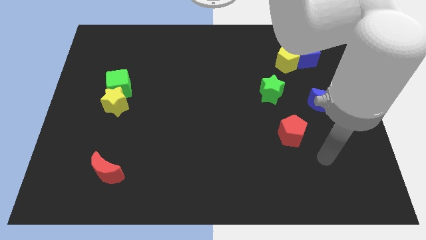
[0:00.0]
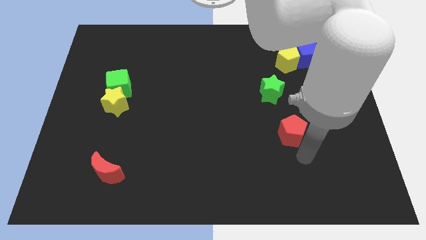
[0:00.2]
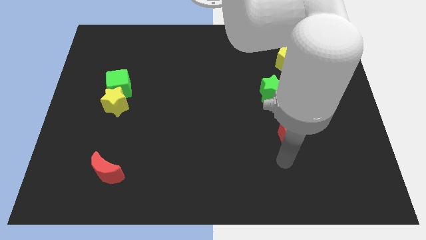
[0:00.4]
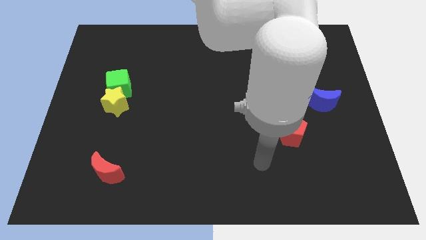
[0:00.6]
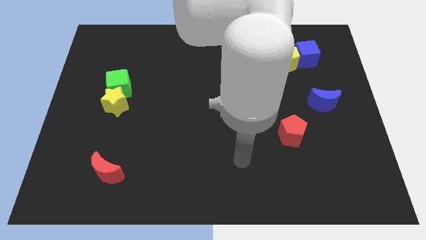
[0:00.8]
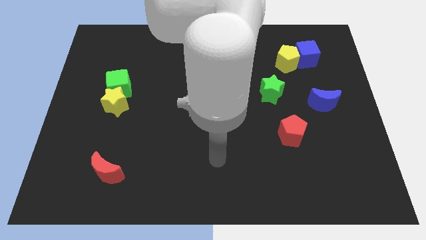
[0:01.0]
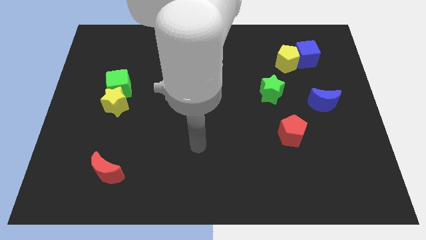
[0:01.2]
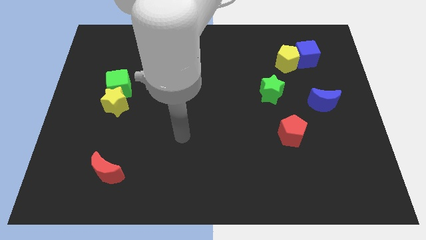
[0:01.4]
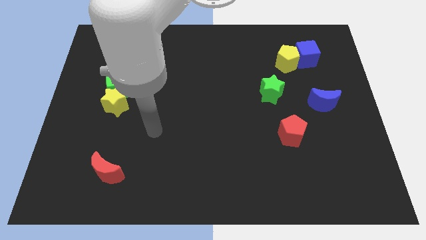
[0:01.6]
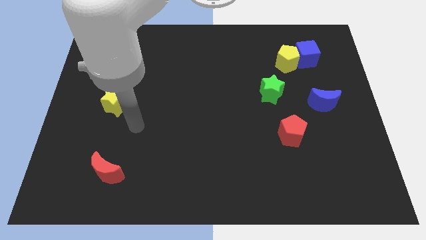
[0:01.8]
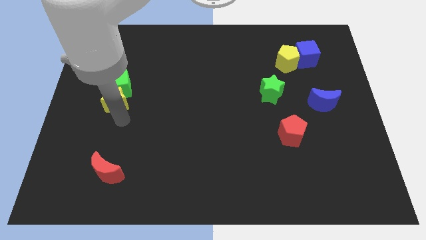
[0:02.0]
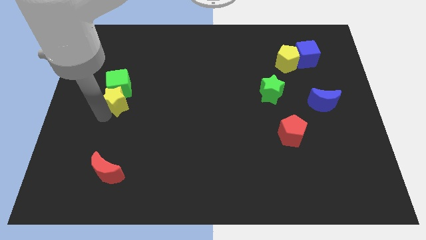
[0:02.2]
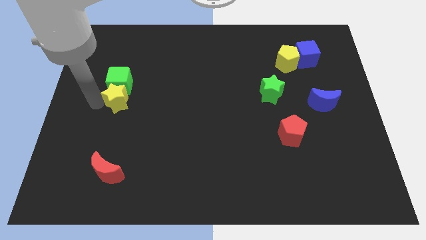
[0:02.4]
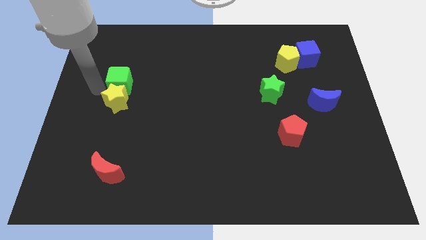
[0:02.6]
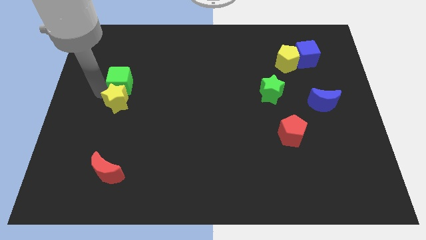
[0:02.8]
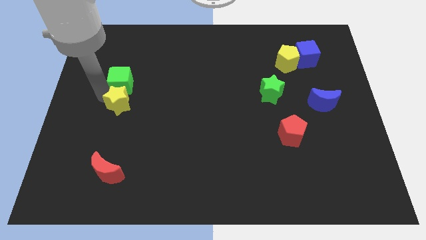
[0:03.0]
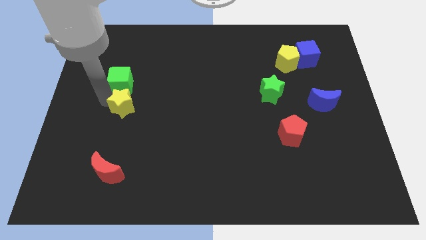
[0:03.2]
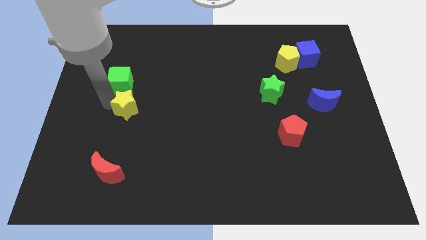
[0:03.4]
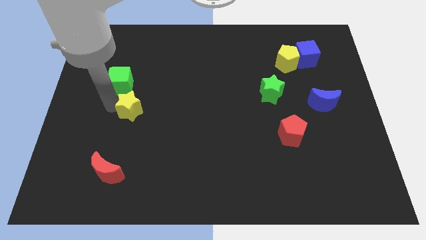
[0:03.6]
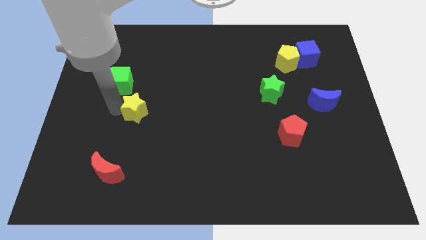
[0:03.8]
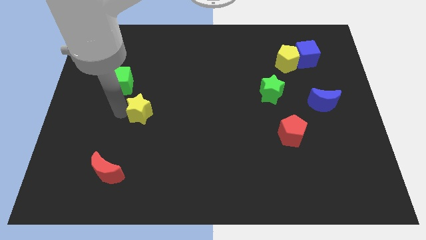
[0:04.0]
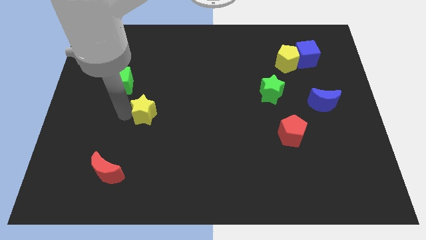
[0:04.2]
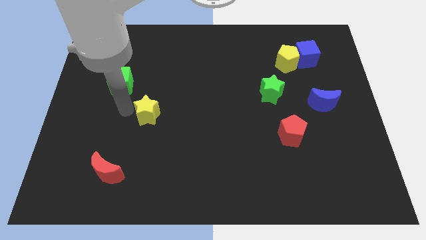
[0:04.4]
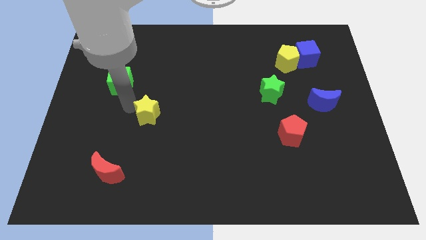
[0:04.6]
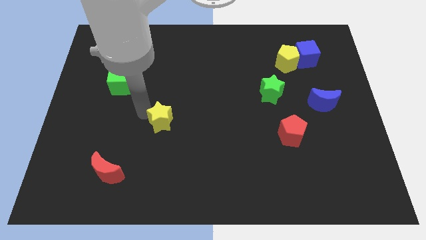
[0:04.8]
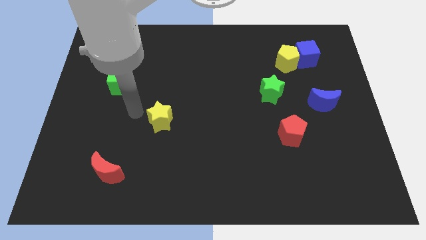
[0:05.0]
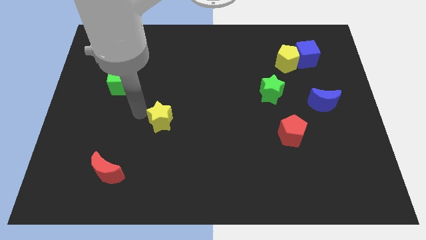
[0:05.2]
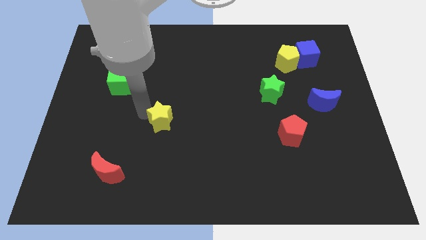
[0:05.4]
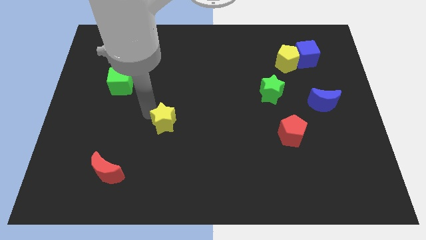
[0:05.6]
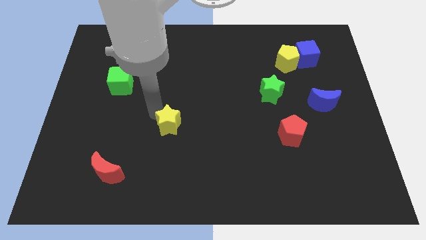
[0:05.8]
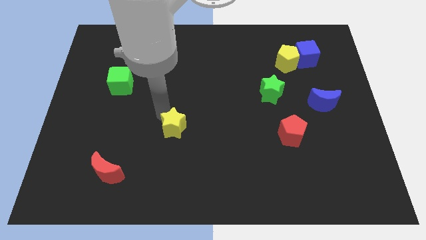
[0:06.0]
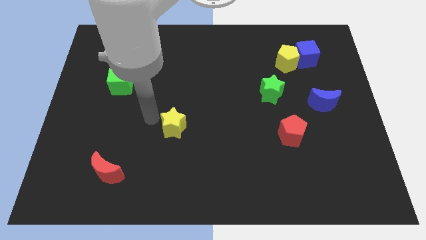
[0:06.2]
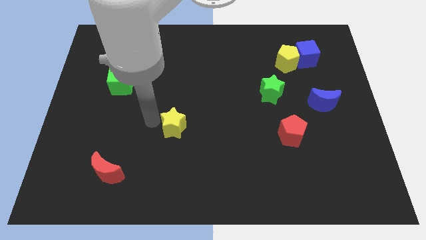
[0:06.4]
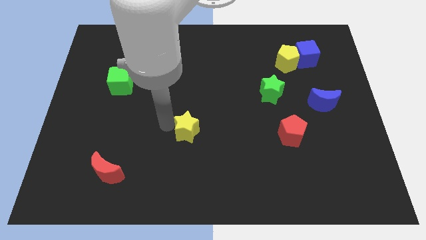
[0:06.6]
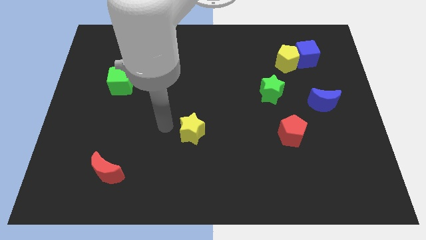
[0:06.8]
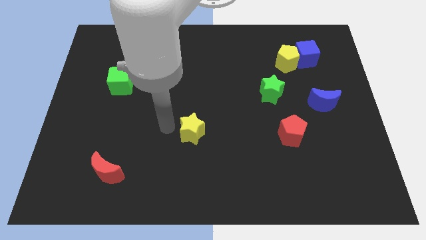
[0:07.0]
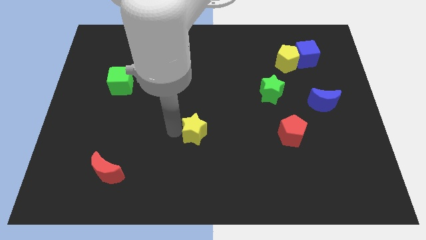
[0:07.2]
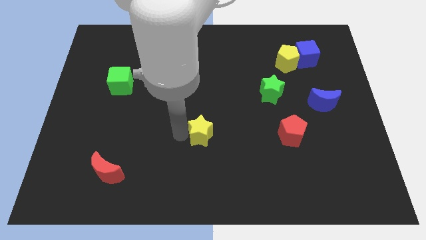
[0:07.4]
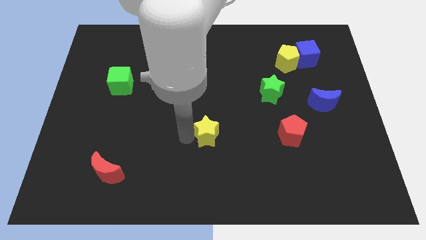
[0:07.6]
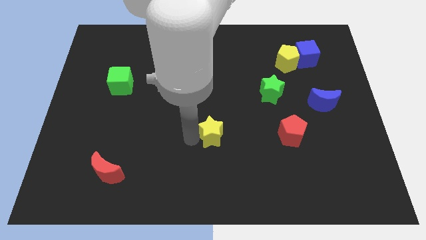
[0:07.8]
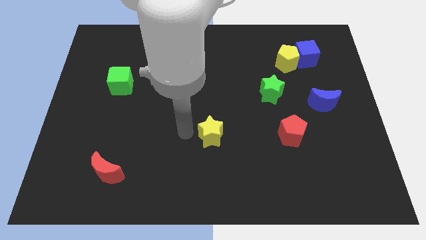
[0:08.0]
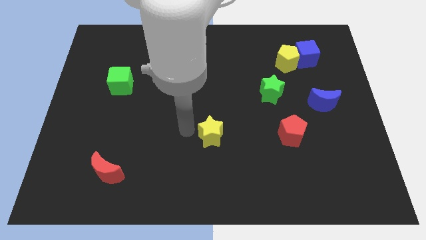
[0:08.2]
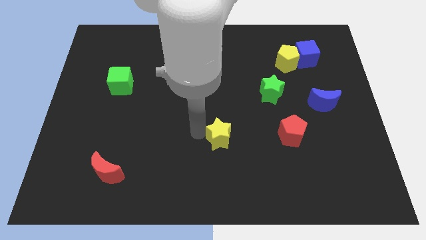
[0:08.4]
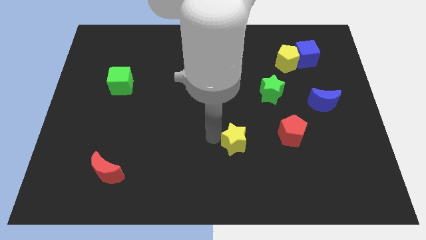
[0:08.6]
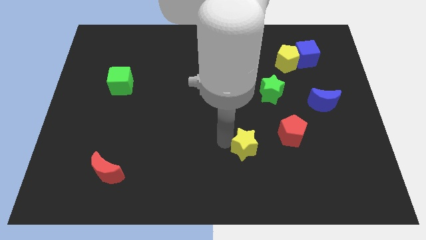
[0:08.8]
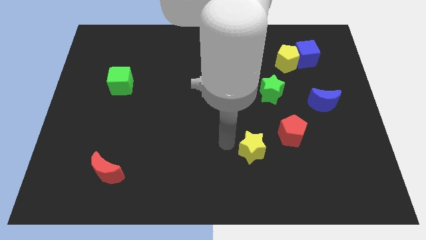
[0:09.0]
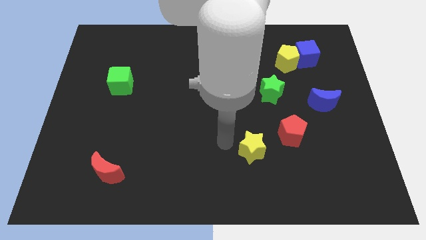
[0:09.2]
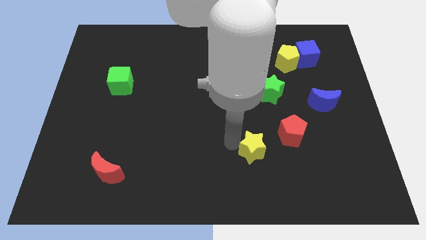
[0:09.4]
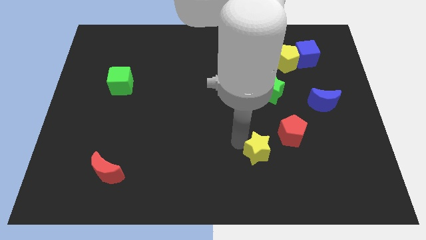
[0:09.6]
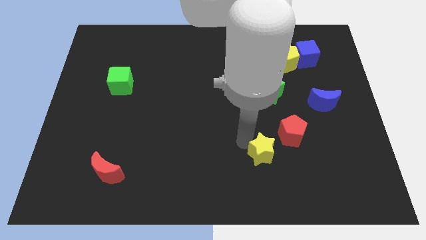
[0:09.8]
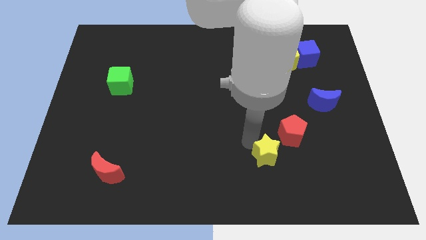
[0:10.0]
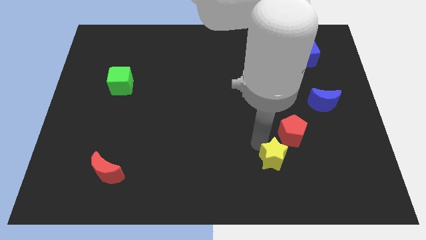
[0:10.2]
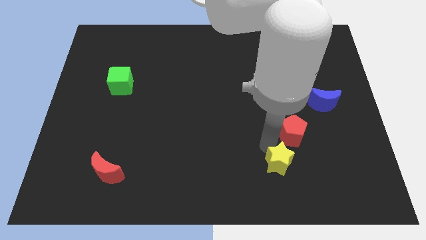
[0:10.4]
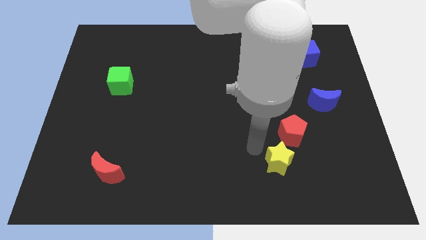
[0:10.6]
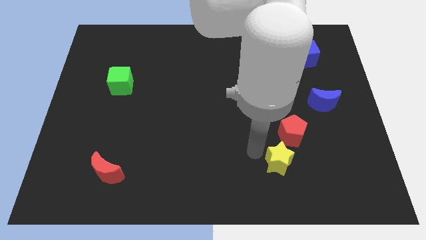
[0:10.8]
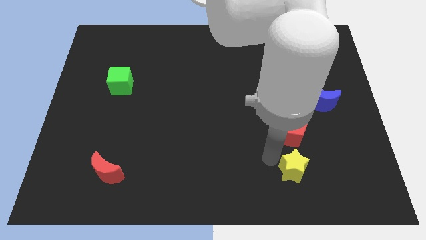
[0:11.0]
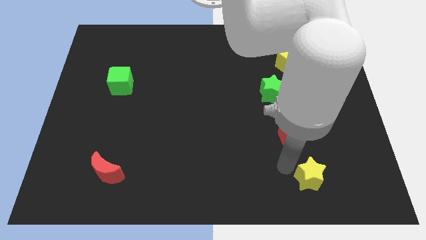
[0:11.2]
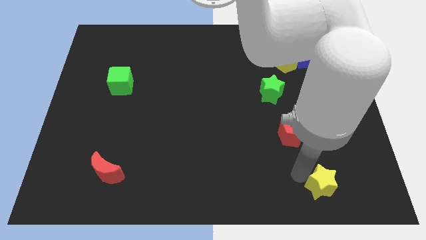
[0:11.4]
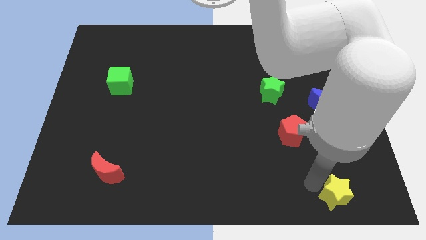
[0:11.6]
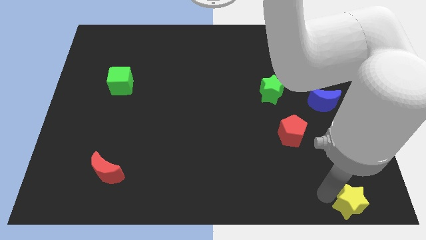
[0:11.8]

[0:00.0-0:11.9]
slide the yellow star to the lower right corner

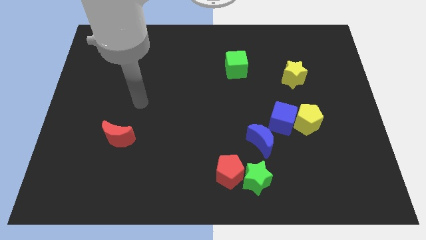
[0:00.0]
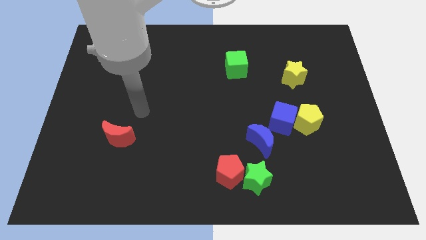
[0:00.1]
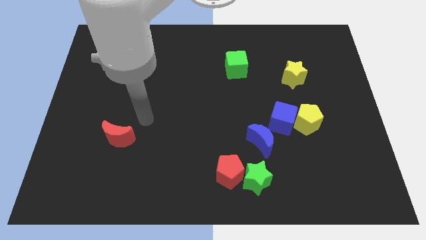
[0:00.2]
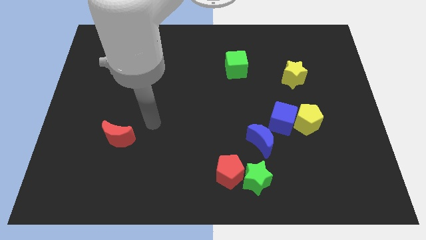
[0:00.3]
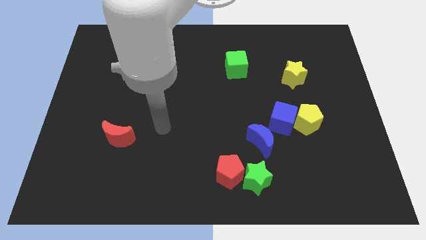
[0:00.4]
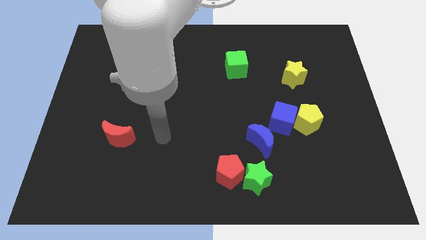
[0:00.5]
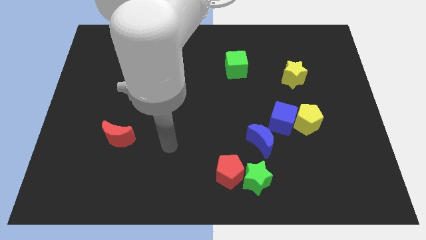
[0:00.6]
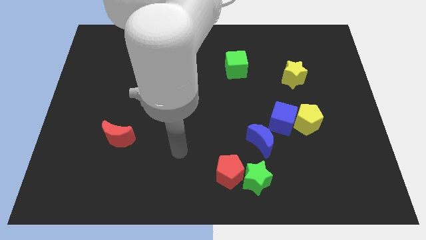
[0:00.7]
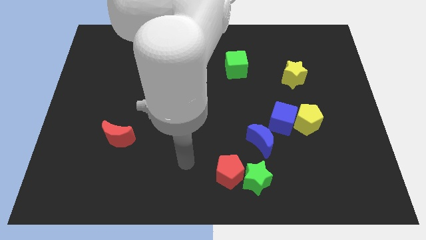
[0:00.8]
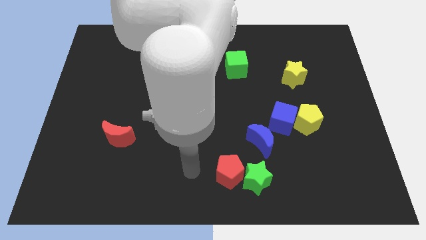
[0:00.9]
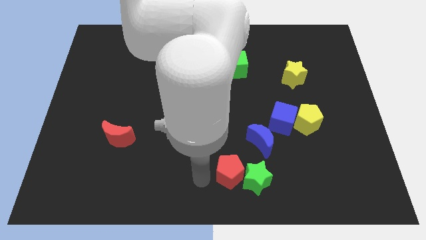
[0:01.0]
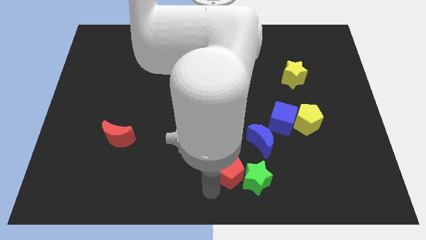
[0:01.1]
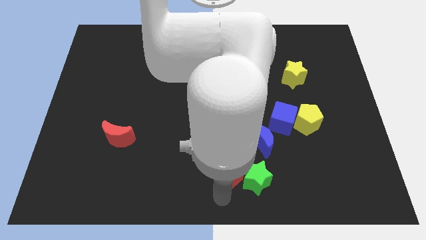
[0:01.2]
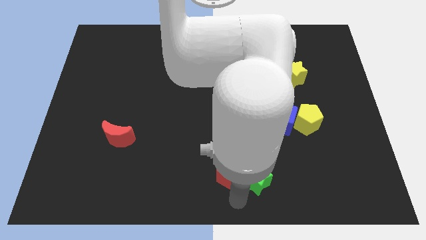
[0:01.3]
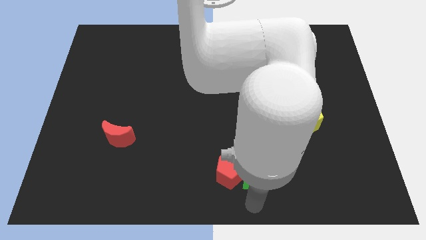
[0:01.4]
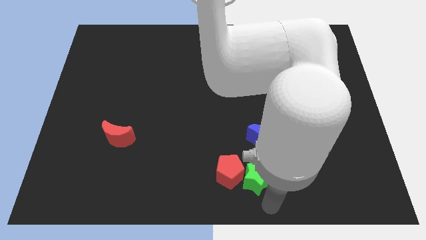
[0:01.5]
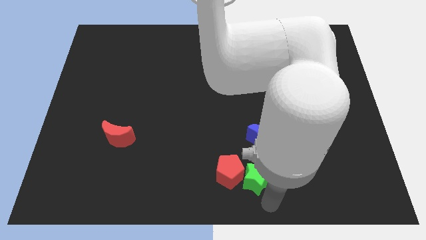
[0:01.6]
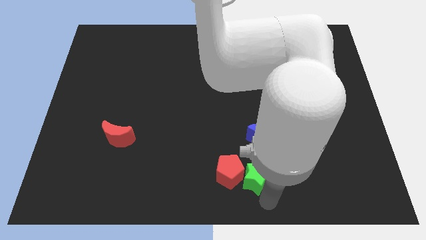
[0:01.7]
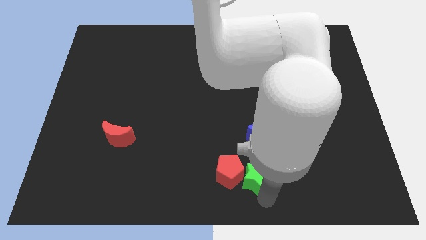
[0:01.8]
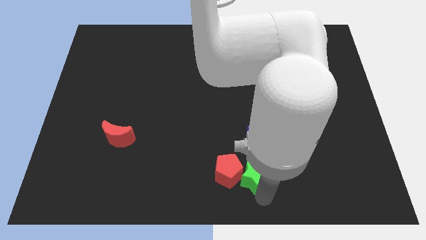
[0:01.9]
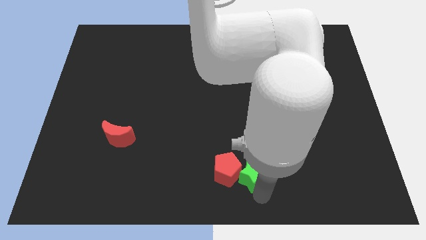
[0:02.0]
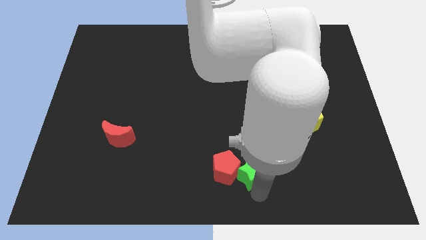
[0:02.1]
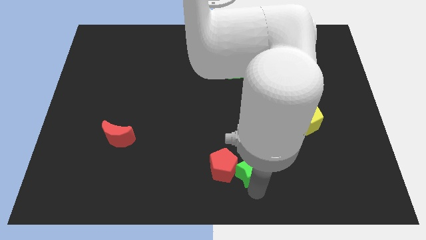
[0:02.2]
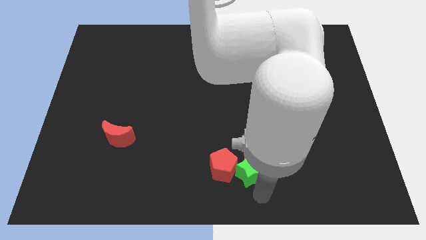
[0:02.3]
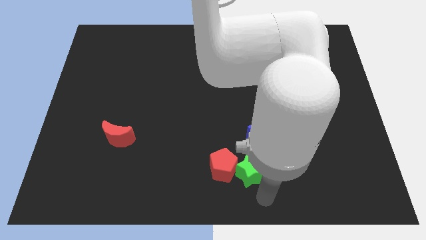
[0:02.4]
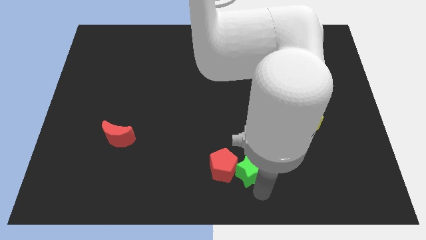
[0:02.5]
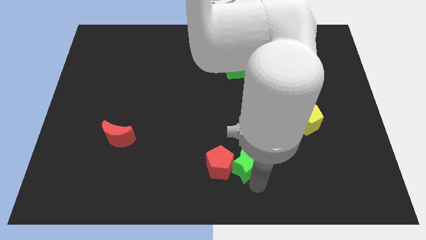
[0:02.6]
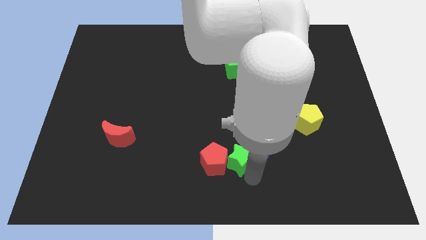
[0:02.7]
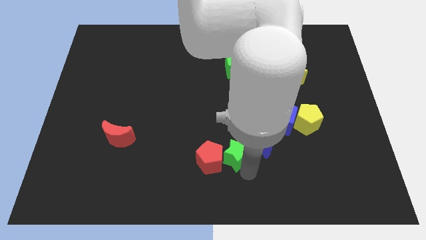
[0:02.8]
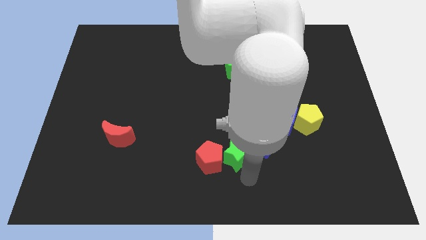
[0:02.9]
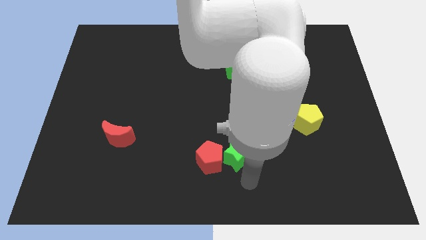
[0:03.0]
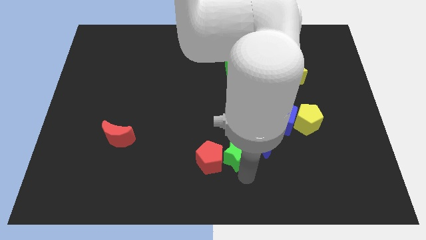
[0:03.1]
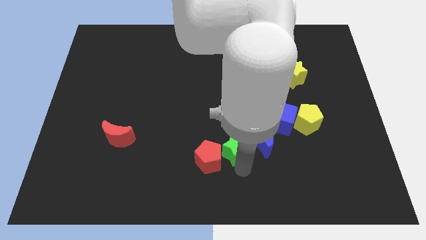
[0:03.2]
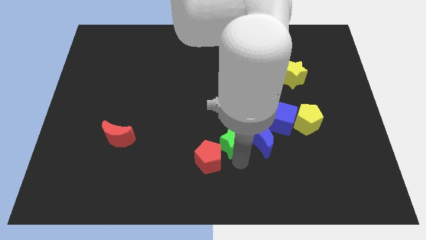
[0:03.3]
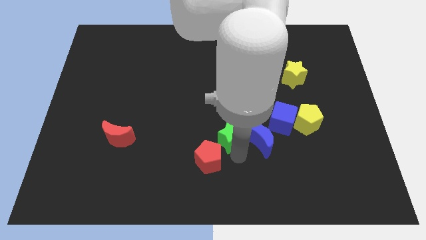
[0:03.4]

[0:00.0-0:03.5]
put the green star to the center of the board
